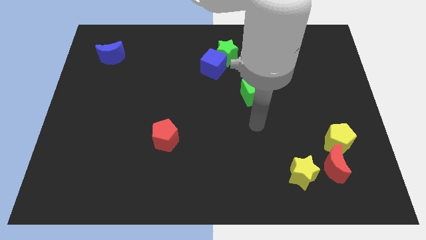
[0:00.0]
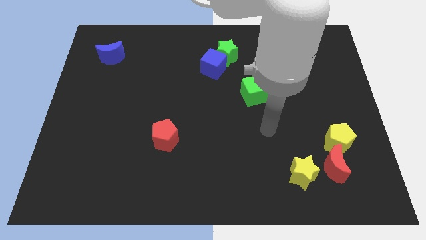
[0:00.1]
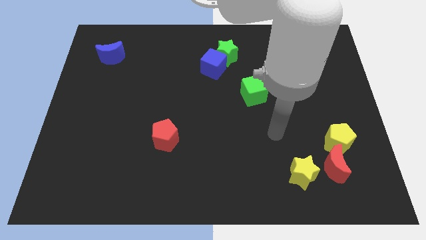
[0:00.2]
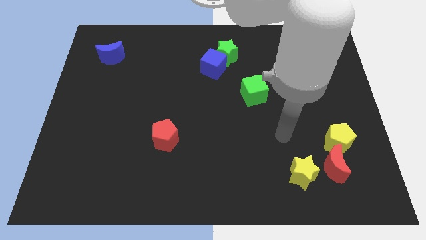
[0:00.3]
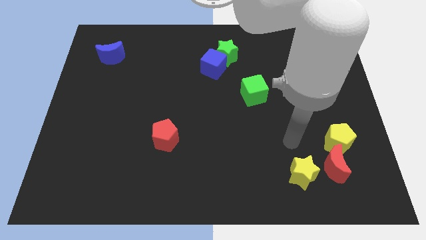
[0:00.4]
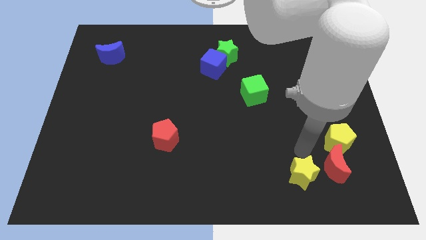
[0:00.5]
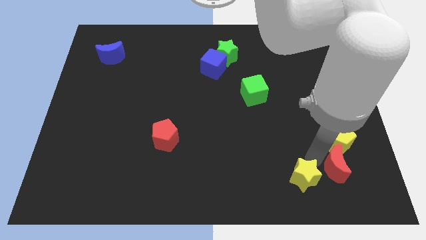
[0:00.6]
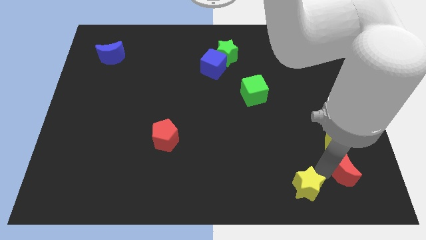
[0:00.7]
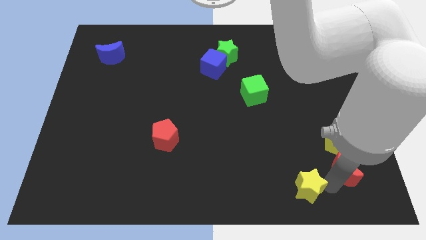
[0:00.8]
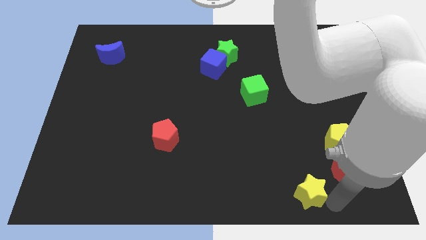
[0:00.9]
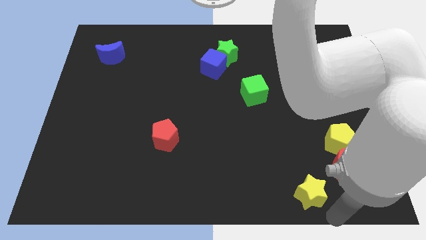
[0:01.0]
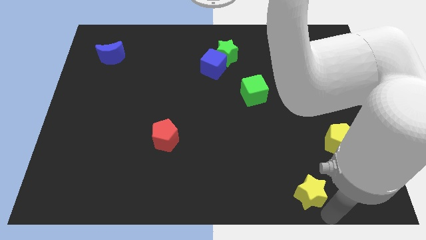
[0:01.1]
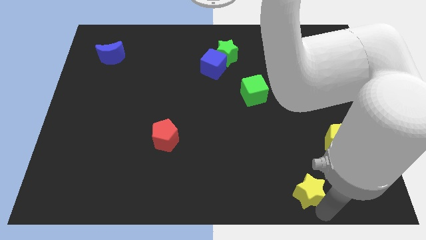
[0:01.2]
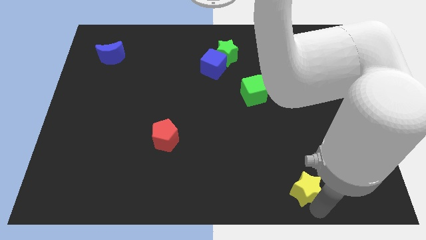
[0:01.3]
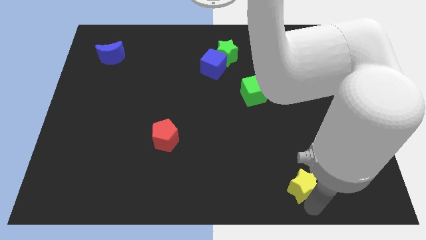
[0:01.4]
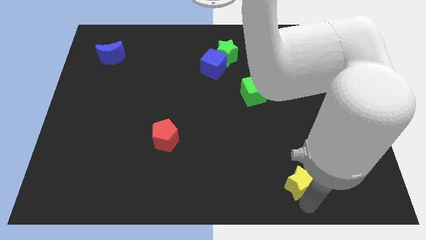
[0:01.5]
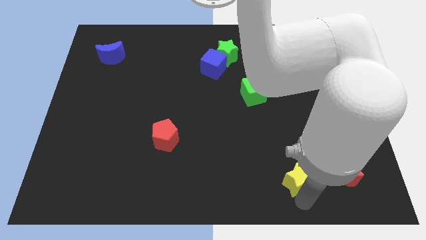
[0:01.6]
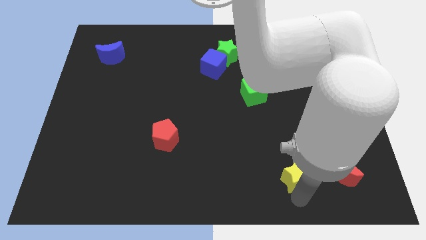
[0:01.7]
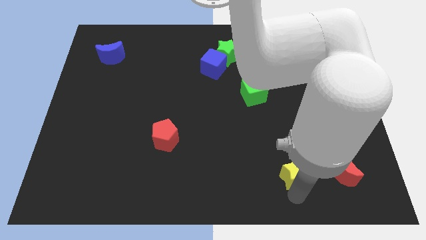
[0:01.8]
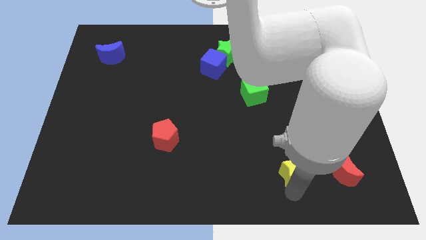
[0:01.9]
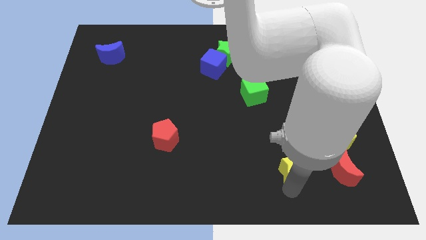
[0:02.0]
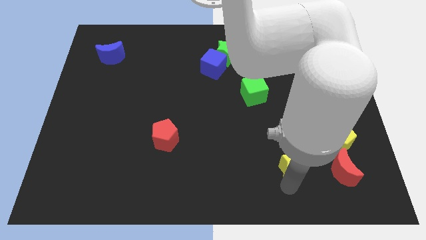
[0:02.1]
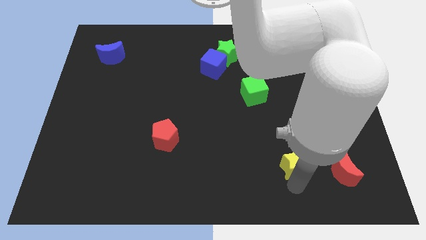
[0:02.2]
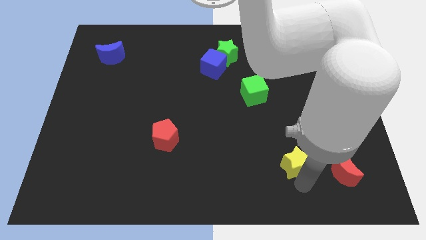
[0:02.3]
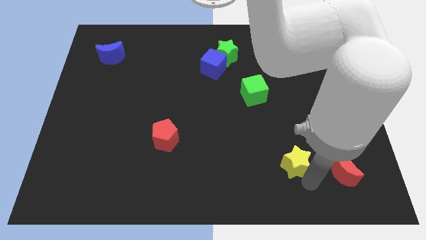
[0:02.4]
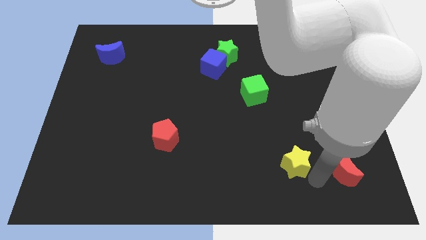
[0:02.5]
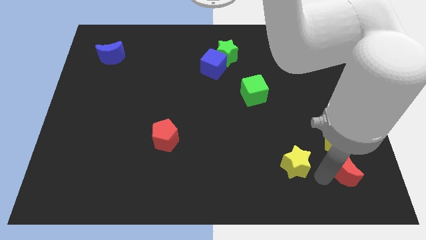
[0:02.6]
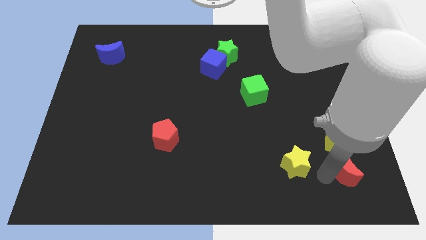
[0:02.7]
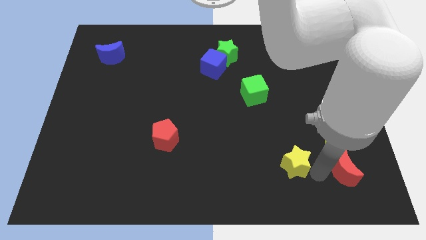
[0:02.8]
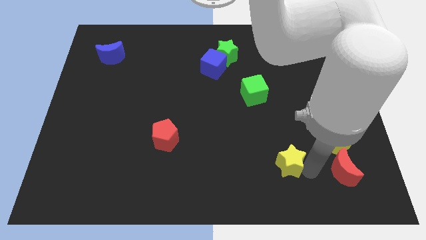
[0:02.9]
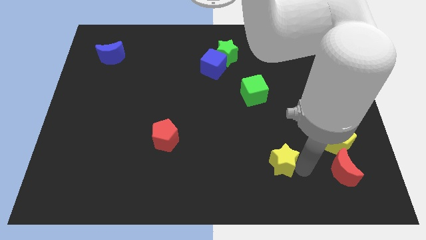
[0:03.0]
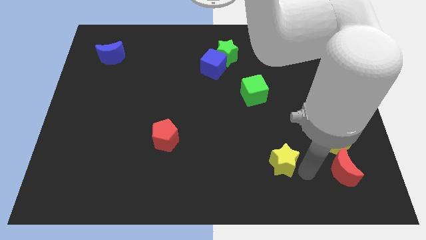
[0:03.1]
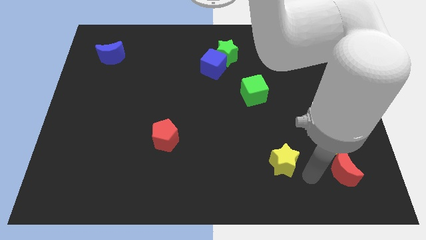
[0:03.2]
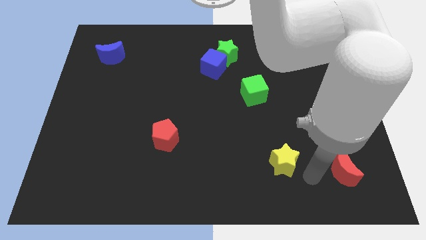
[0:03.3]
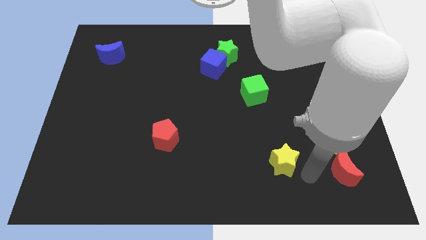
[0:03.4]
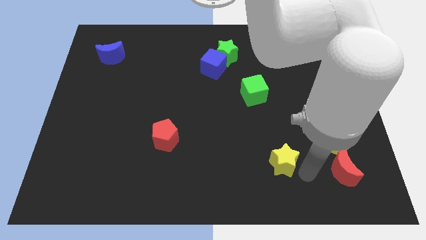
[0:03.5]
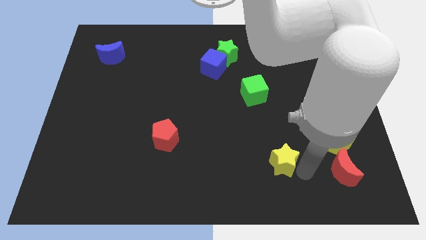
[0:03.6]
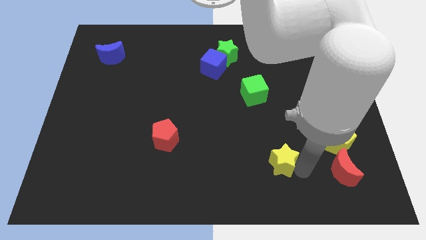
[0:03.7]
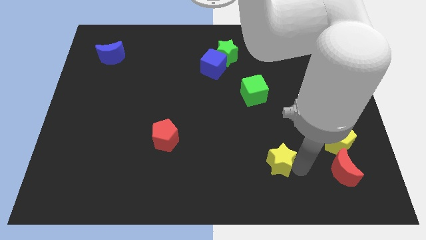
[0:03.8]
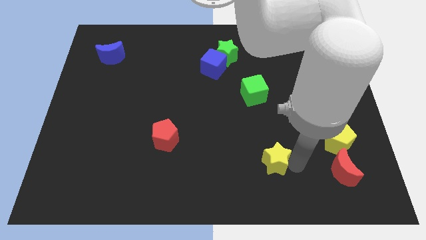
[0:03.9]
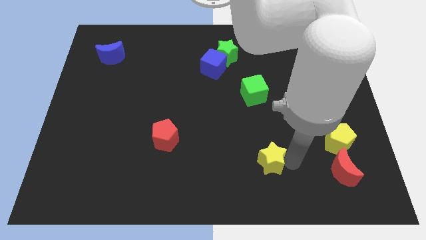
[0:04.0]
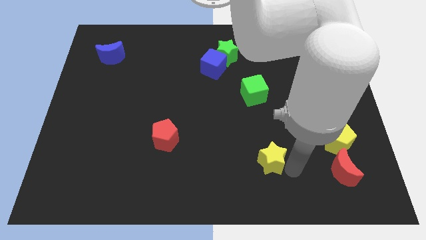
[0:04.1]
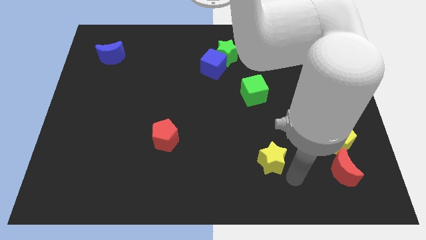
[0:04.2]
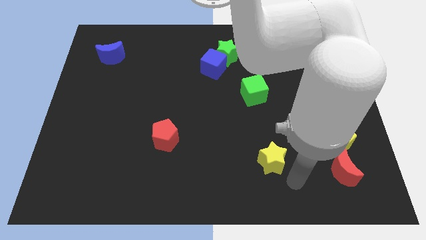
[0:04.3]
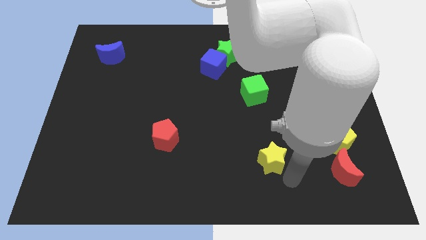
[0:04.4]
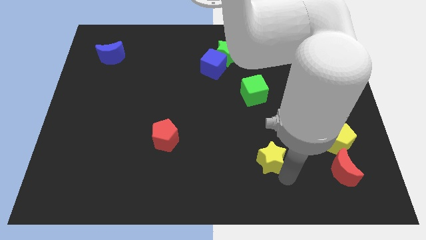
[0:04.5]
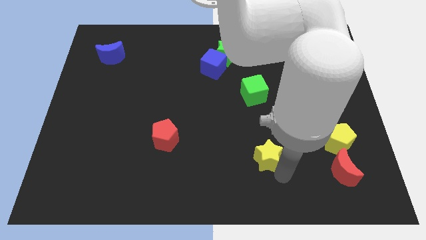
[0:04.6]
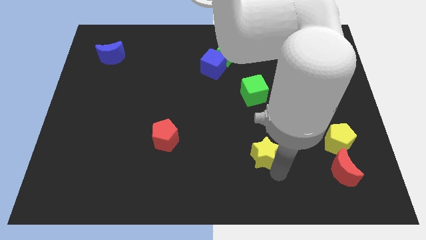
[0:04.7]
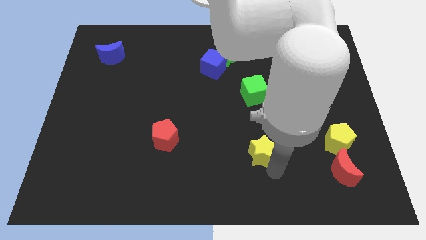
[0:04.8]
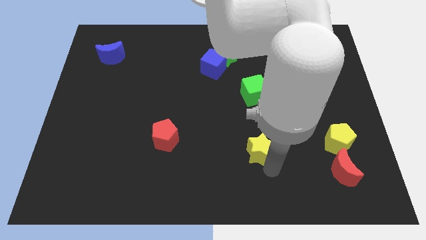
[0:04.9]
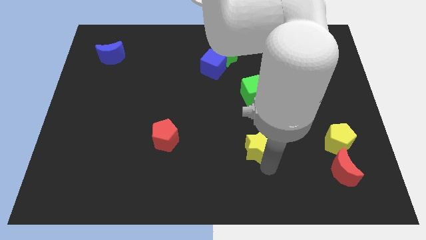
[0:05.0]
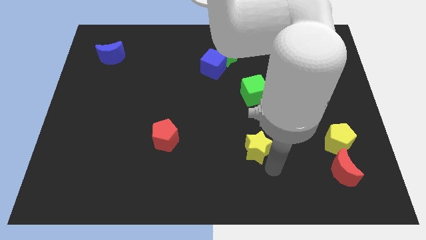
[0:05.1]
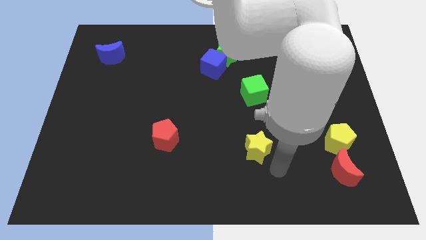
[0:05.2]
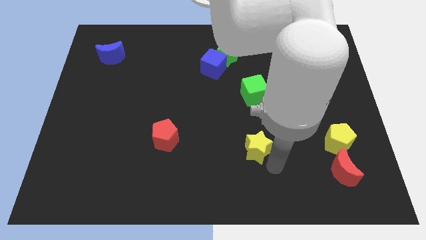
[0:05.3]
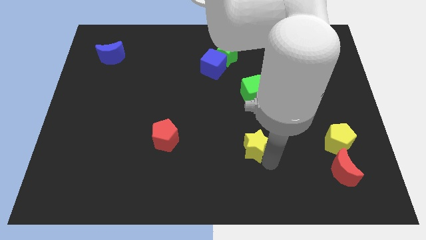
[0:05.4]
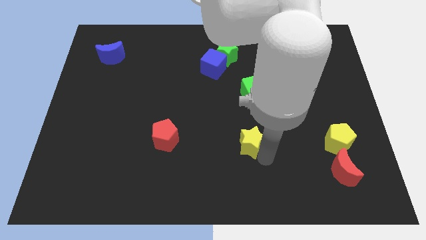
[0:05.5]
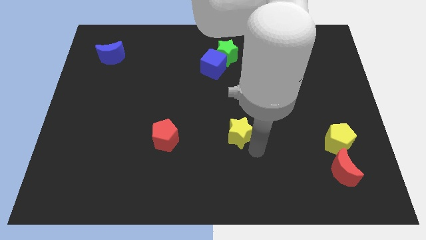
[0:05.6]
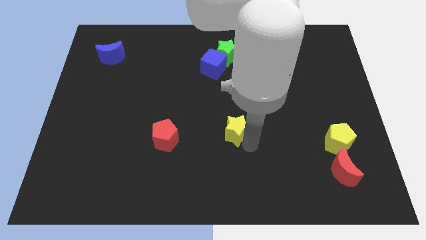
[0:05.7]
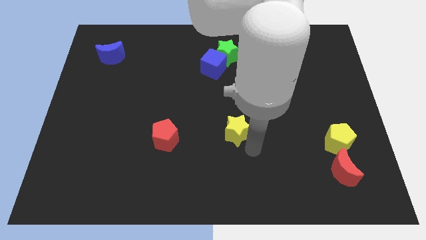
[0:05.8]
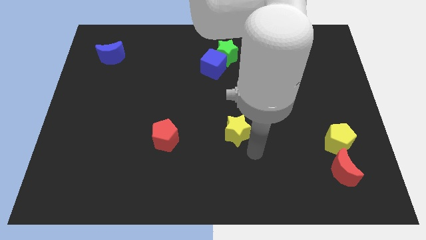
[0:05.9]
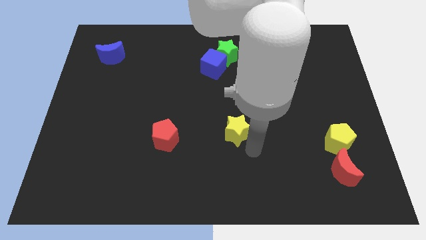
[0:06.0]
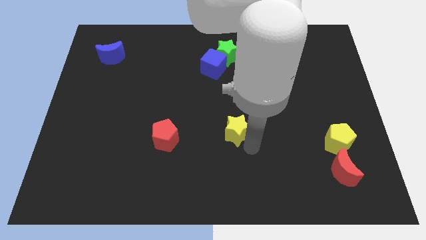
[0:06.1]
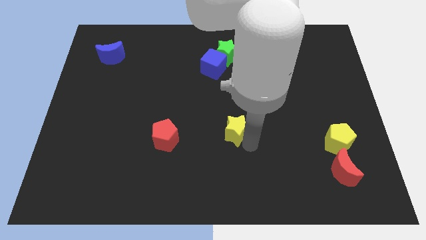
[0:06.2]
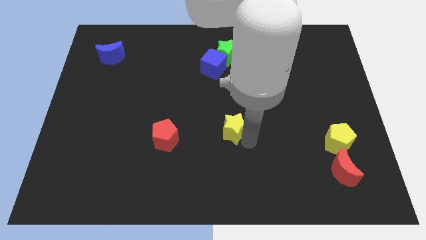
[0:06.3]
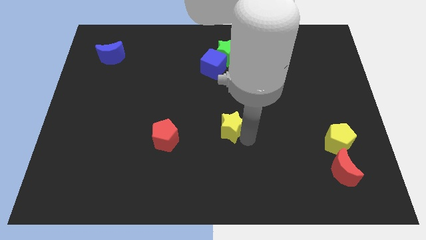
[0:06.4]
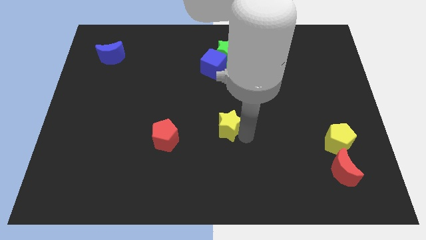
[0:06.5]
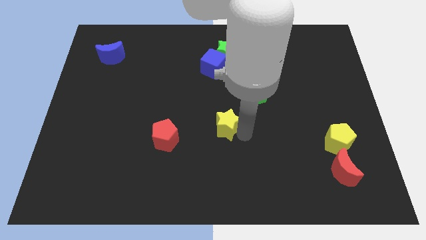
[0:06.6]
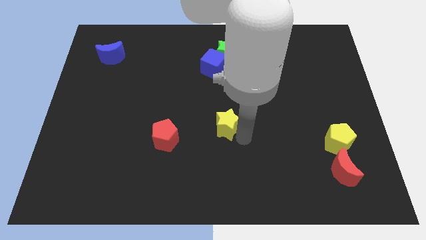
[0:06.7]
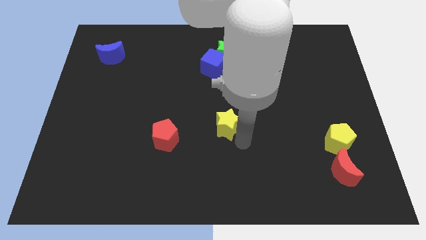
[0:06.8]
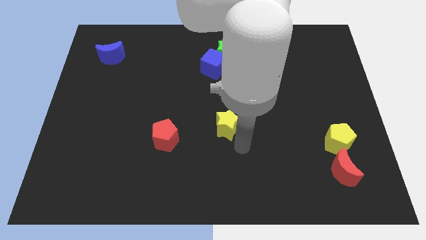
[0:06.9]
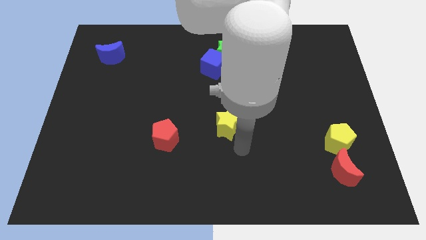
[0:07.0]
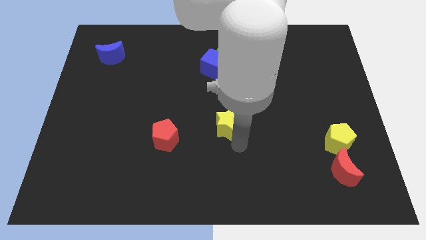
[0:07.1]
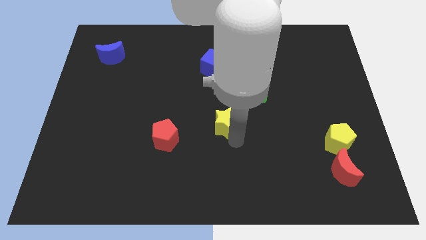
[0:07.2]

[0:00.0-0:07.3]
slide the yellow star diagonally up and to the left

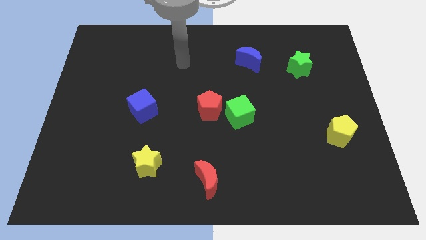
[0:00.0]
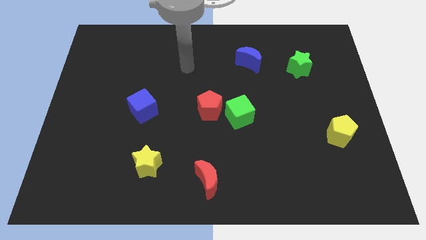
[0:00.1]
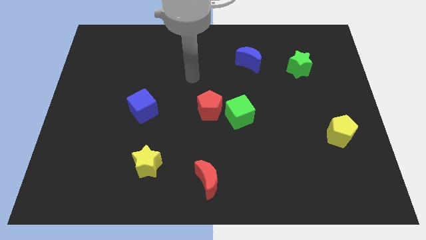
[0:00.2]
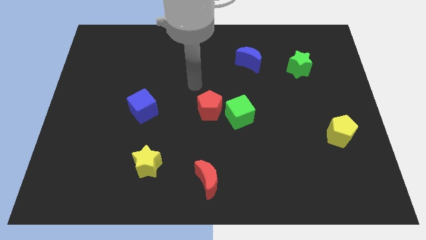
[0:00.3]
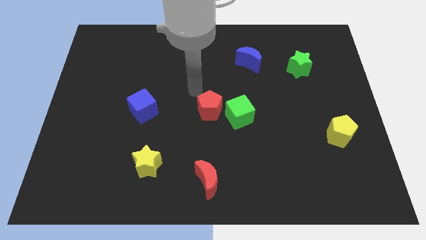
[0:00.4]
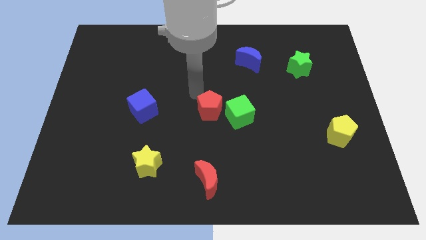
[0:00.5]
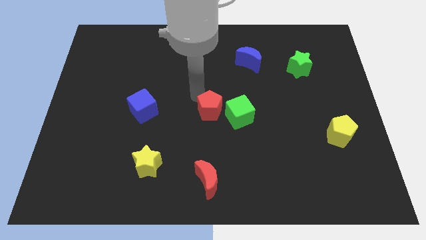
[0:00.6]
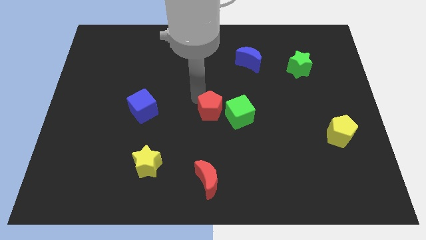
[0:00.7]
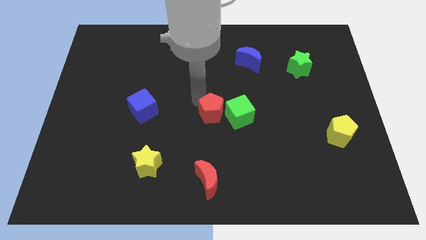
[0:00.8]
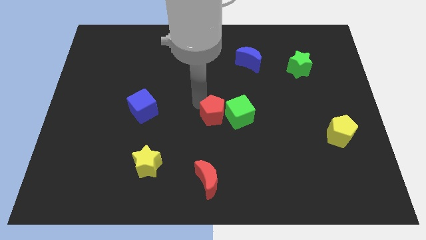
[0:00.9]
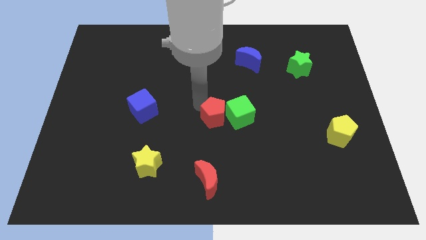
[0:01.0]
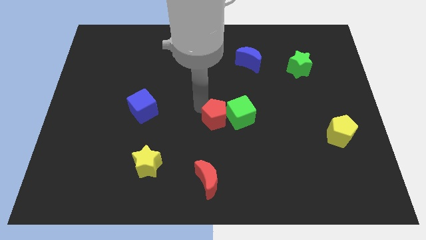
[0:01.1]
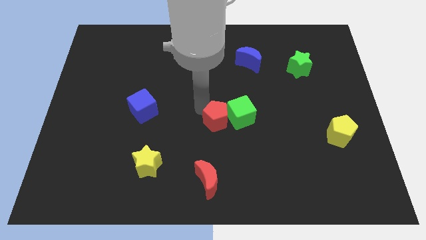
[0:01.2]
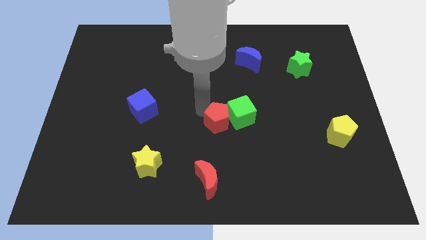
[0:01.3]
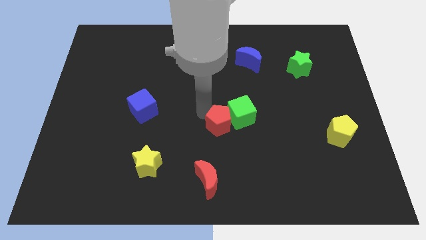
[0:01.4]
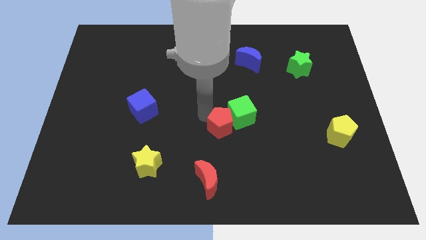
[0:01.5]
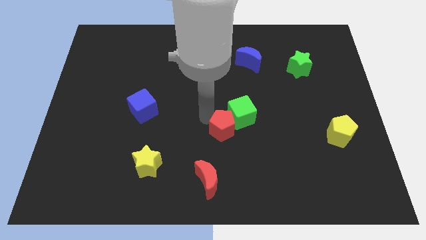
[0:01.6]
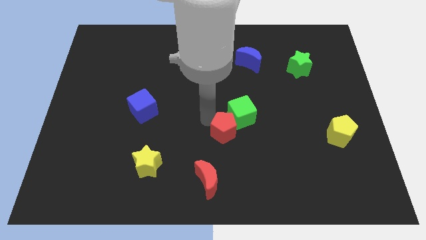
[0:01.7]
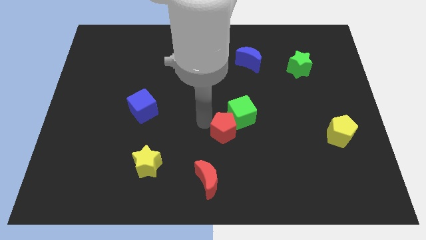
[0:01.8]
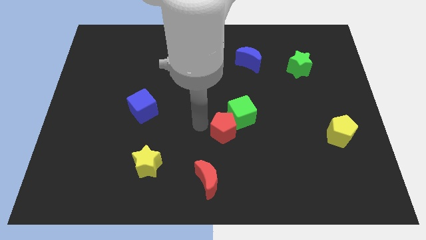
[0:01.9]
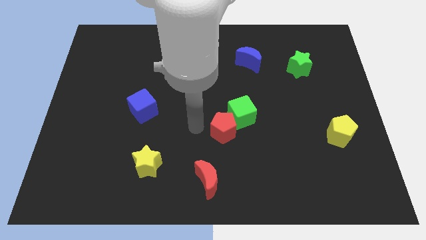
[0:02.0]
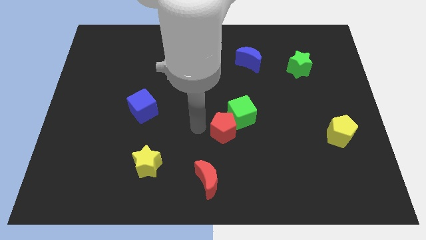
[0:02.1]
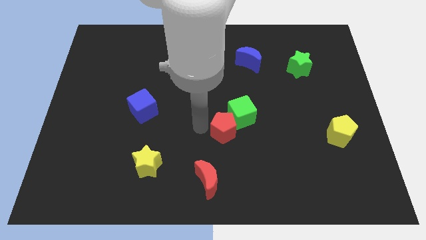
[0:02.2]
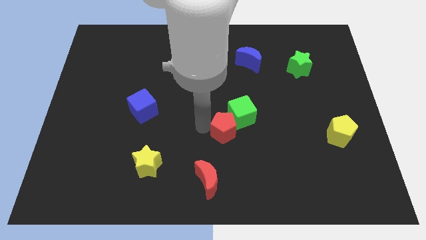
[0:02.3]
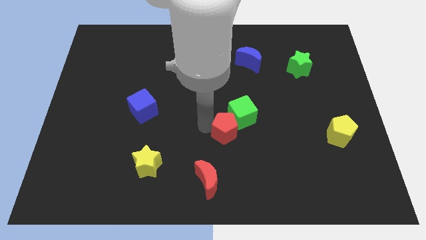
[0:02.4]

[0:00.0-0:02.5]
slightly slide the red pentagon down and then right
